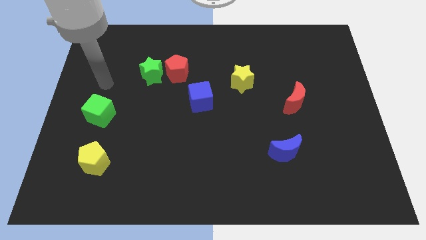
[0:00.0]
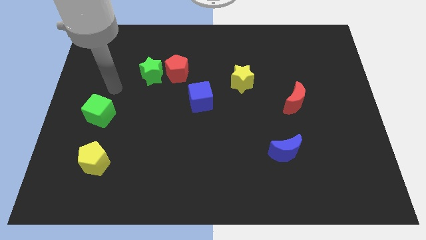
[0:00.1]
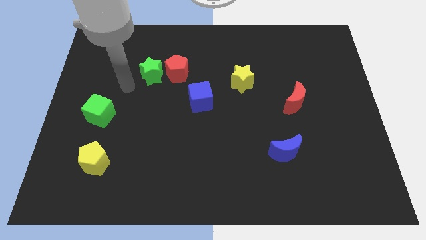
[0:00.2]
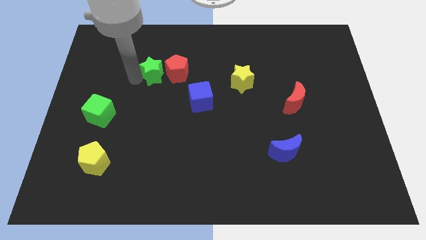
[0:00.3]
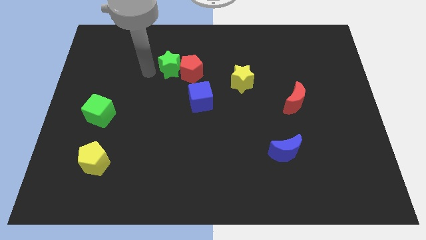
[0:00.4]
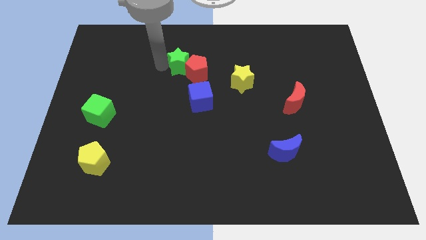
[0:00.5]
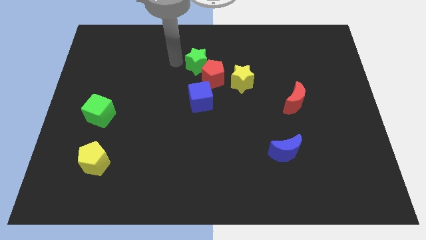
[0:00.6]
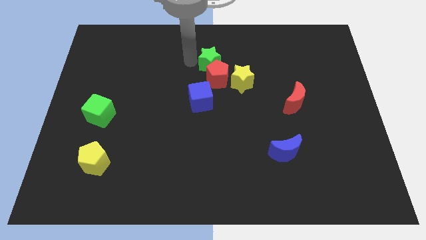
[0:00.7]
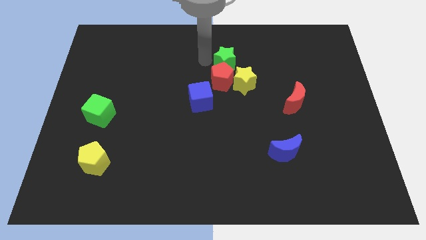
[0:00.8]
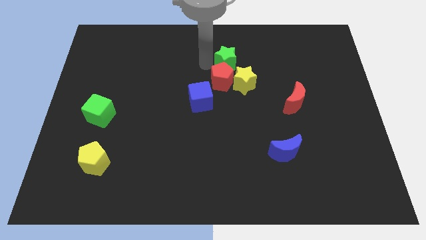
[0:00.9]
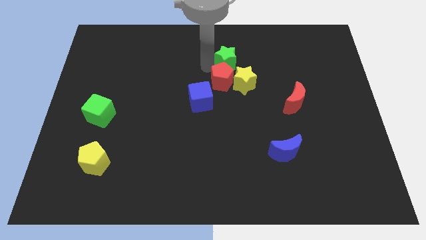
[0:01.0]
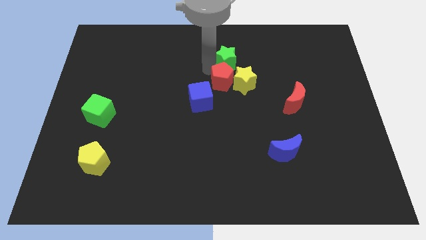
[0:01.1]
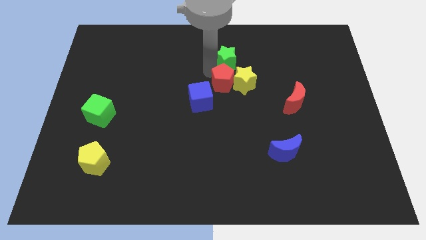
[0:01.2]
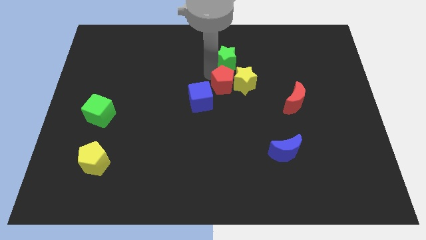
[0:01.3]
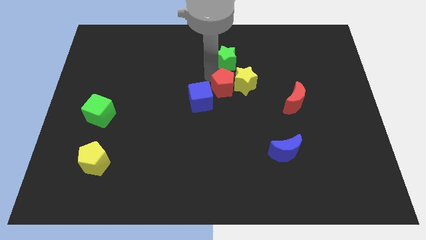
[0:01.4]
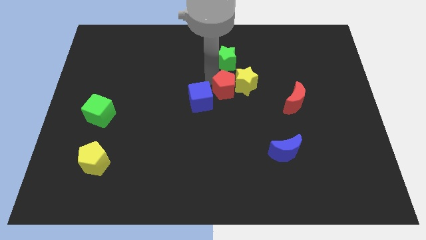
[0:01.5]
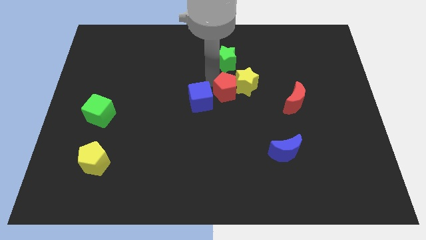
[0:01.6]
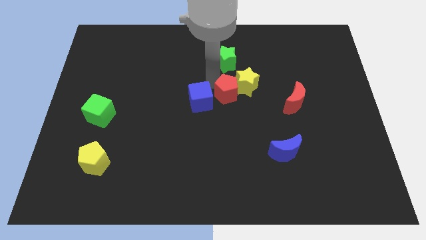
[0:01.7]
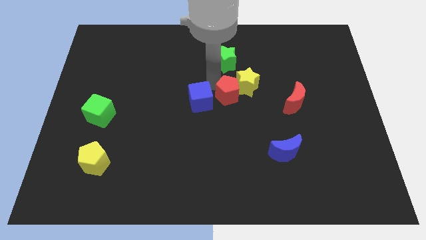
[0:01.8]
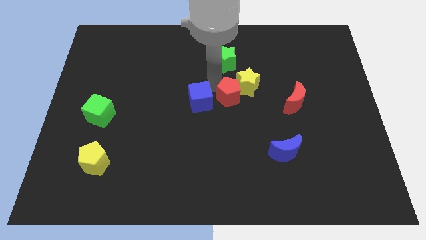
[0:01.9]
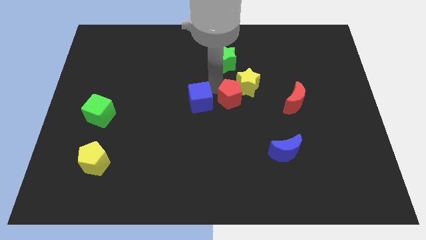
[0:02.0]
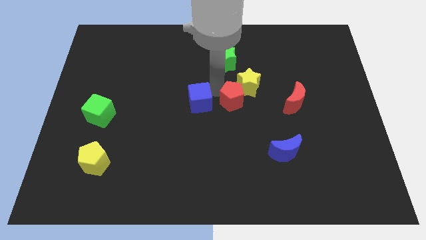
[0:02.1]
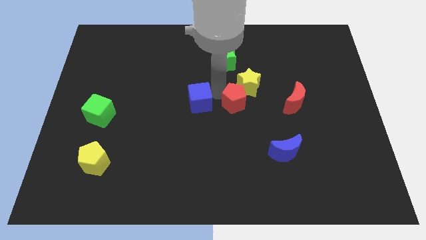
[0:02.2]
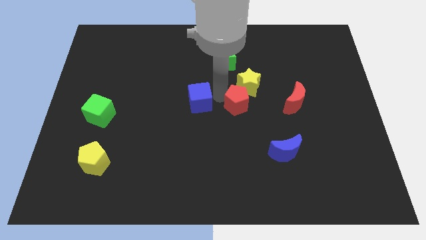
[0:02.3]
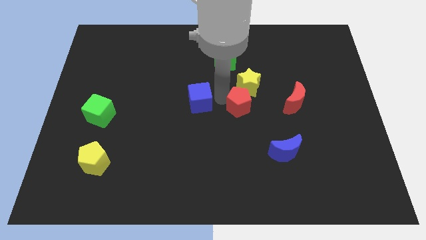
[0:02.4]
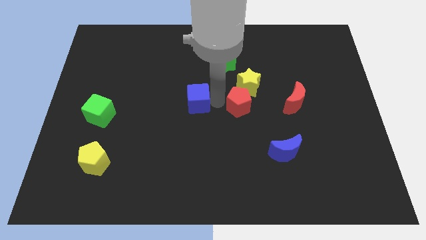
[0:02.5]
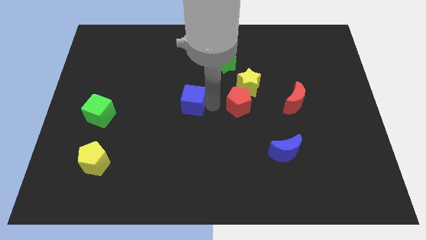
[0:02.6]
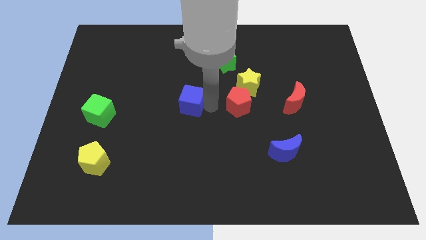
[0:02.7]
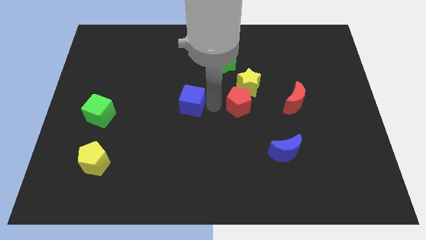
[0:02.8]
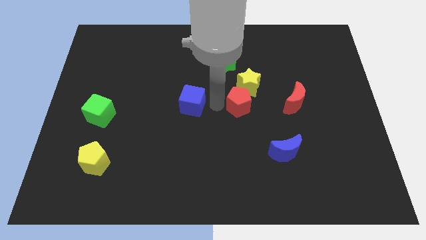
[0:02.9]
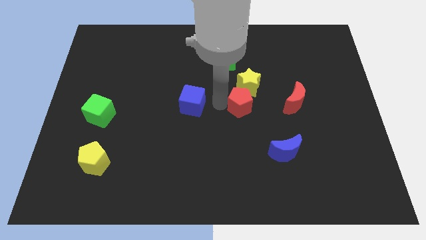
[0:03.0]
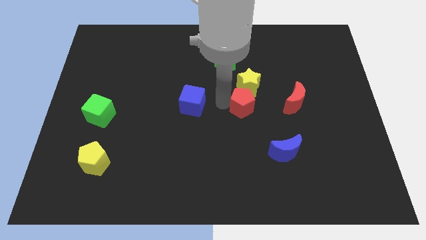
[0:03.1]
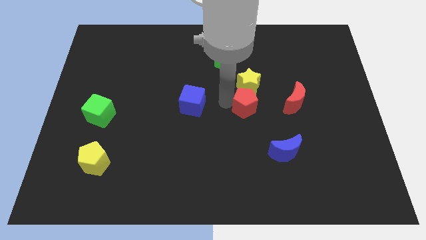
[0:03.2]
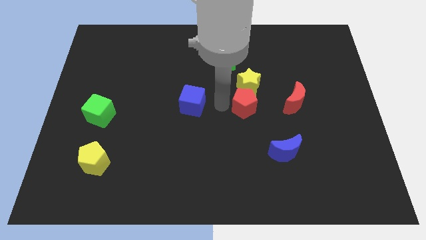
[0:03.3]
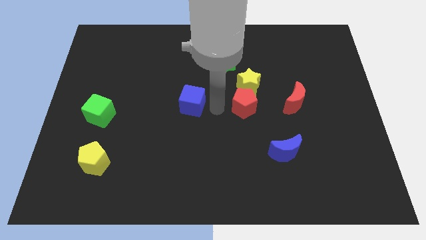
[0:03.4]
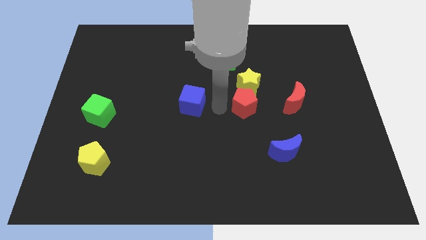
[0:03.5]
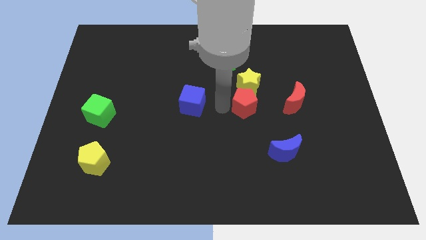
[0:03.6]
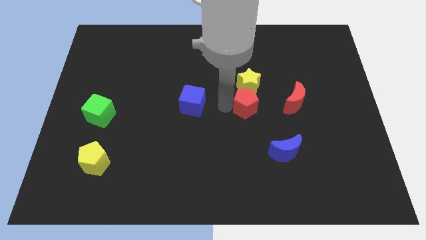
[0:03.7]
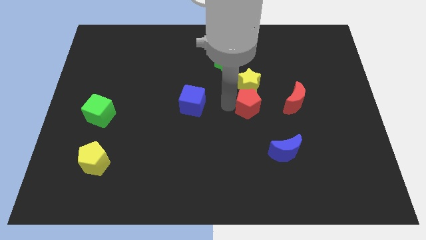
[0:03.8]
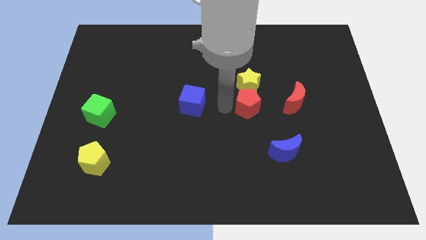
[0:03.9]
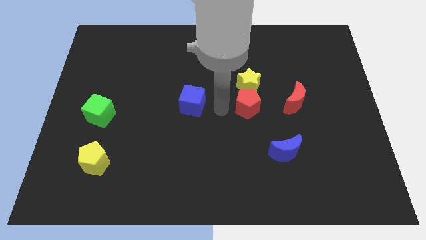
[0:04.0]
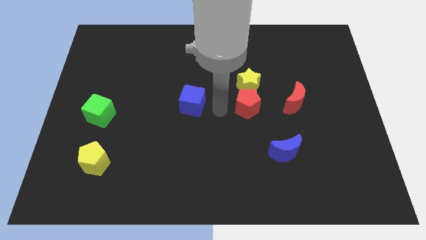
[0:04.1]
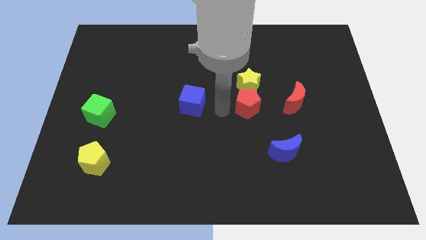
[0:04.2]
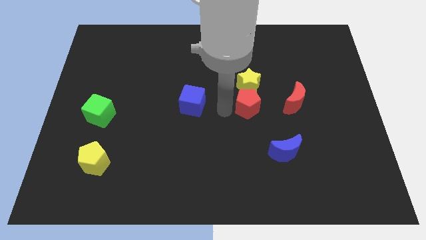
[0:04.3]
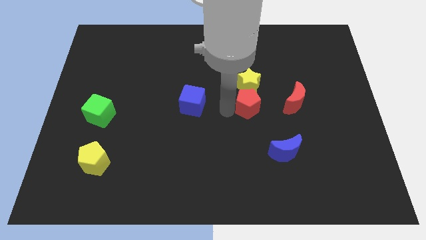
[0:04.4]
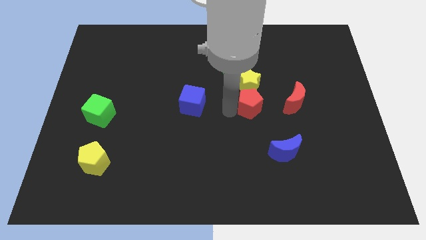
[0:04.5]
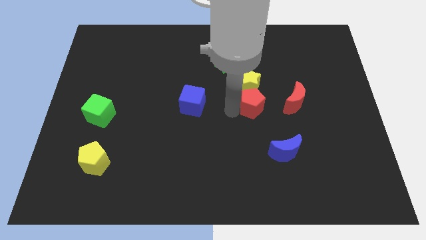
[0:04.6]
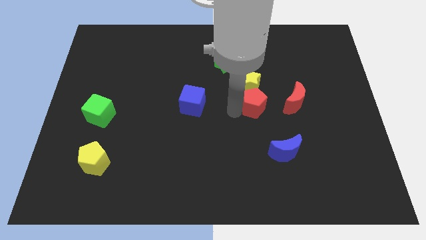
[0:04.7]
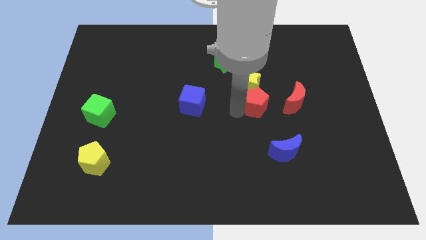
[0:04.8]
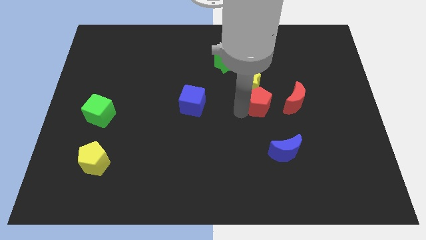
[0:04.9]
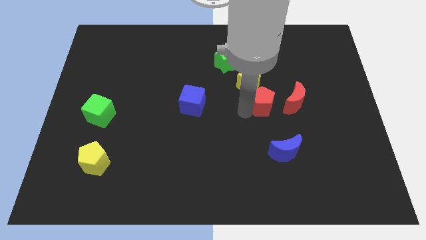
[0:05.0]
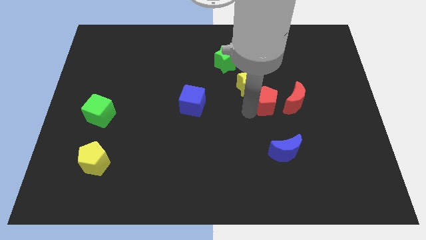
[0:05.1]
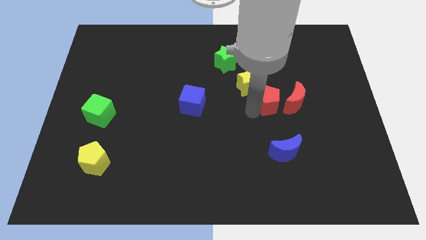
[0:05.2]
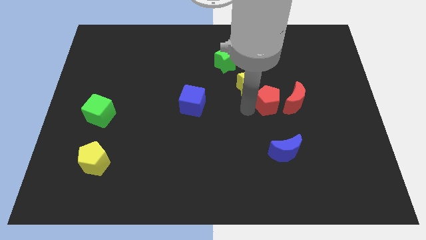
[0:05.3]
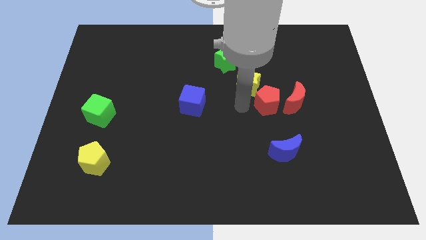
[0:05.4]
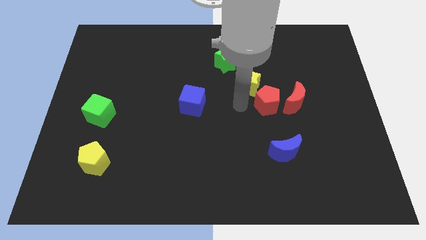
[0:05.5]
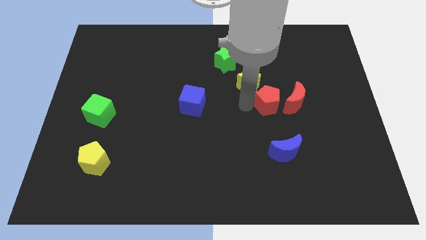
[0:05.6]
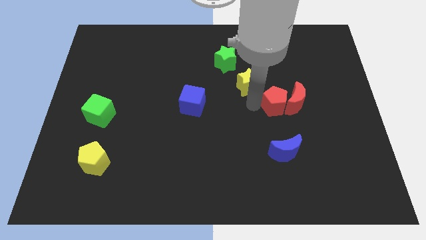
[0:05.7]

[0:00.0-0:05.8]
push the red pentagon close to the red moon

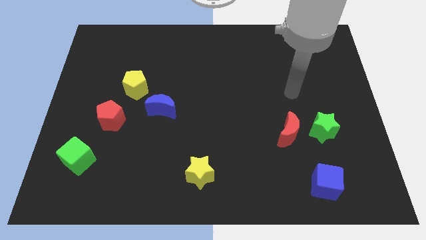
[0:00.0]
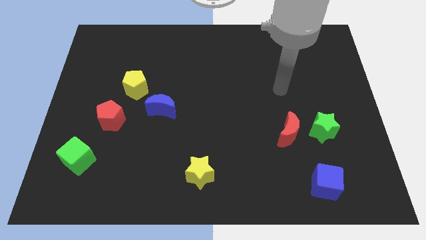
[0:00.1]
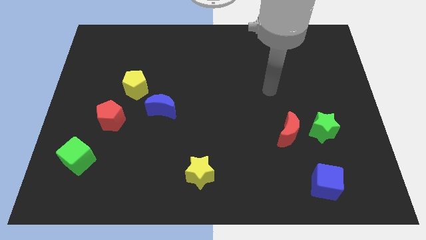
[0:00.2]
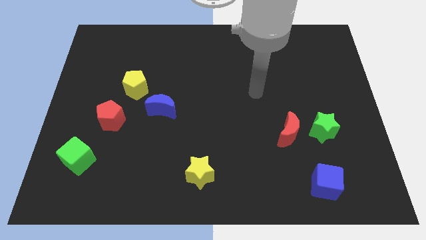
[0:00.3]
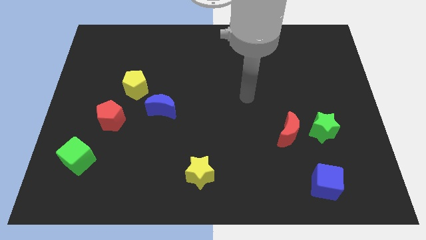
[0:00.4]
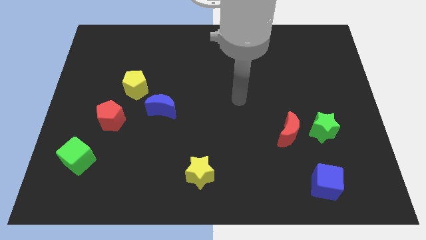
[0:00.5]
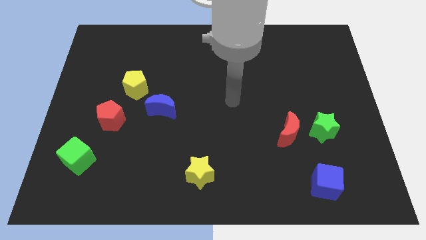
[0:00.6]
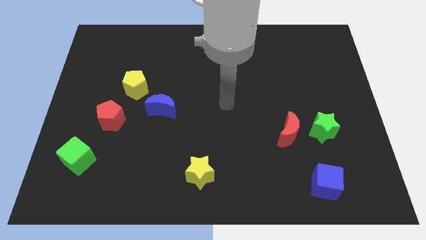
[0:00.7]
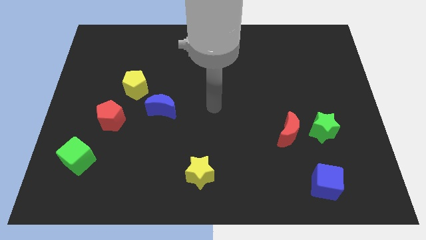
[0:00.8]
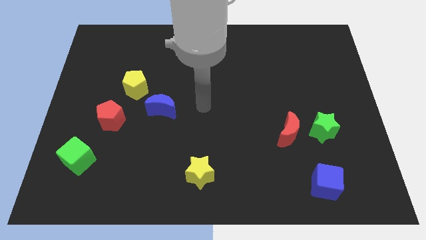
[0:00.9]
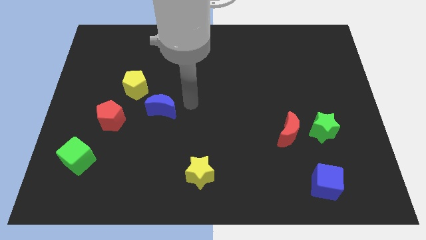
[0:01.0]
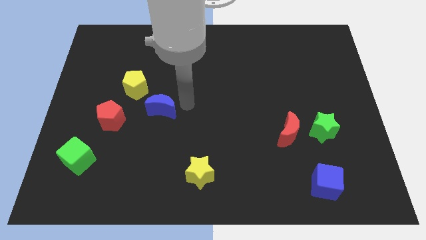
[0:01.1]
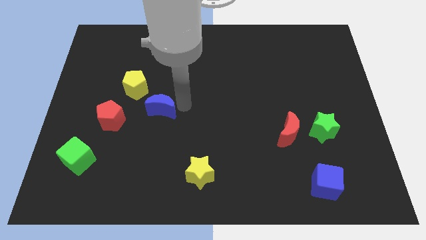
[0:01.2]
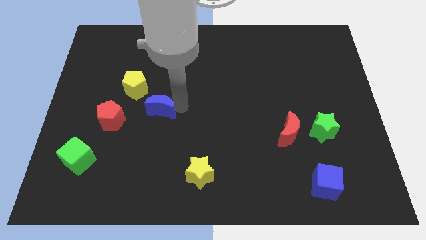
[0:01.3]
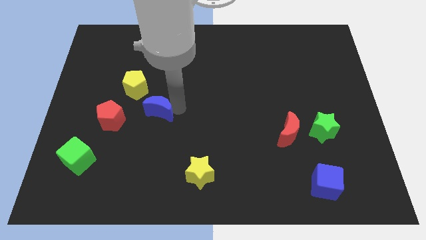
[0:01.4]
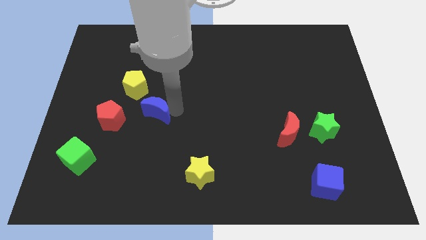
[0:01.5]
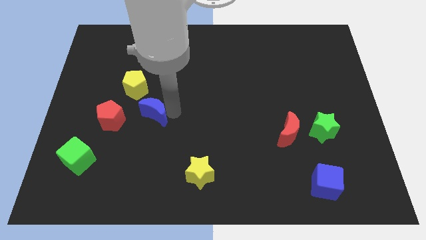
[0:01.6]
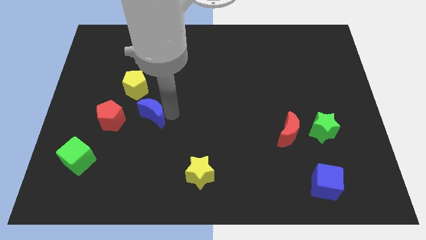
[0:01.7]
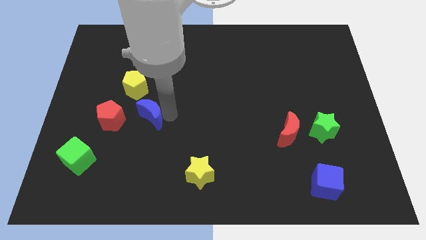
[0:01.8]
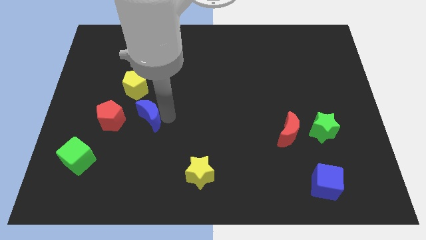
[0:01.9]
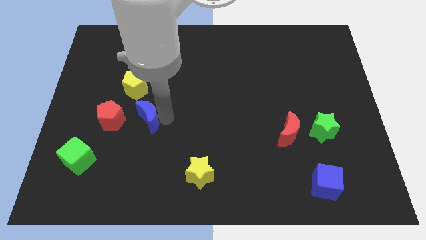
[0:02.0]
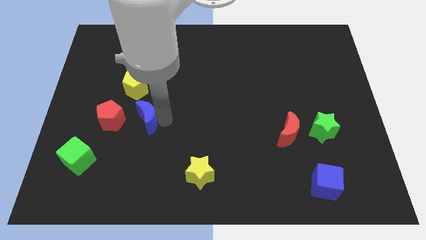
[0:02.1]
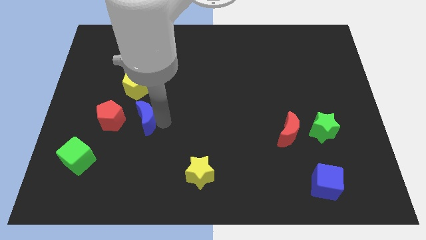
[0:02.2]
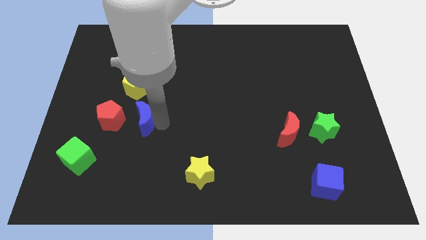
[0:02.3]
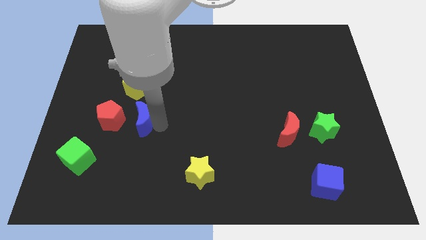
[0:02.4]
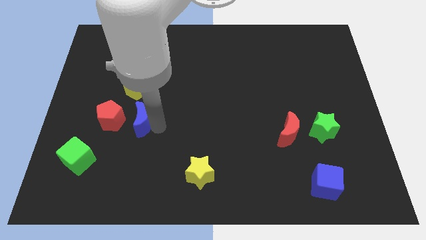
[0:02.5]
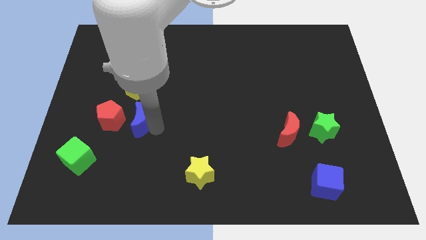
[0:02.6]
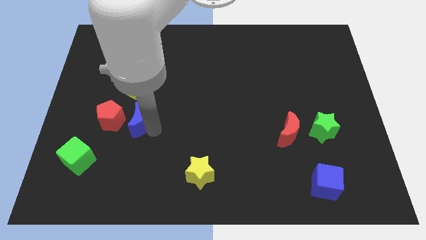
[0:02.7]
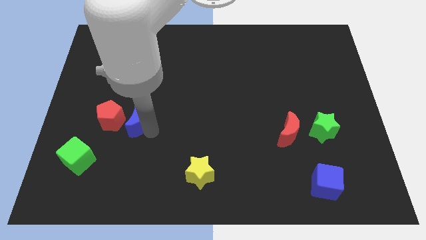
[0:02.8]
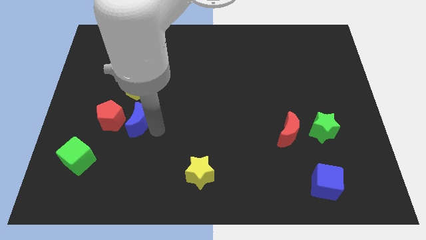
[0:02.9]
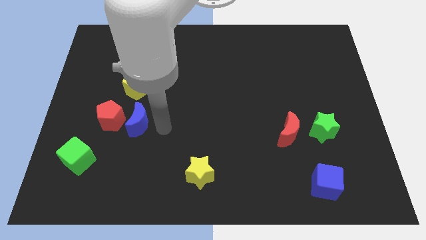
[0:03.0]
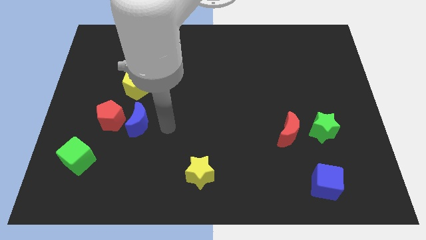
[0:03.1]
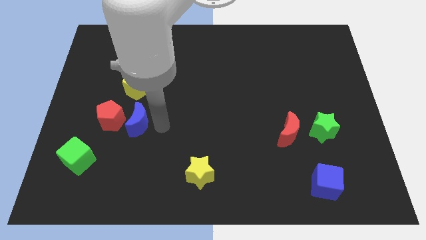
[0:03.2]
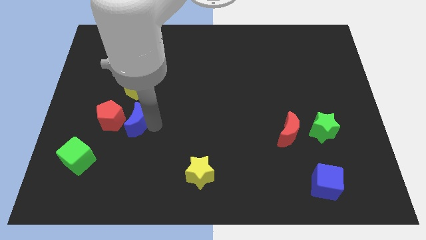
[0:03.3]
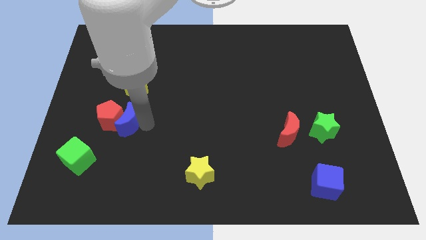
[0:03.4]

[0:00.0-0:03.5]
slide the blue moon next to the red pentagon
